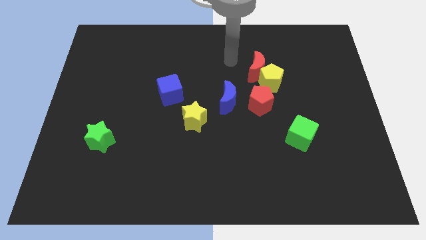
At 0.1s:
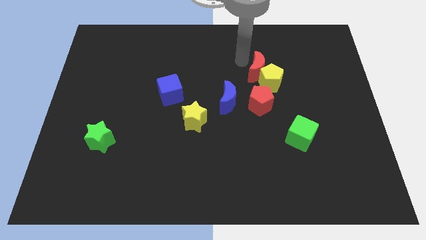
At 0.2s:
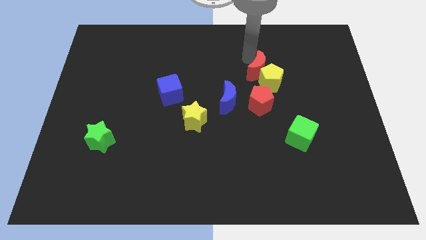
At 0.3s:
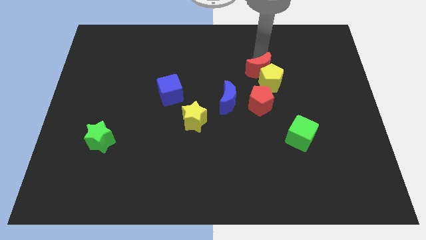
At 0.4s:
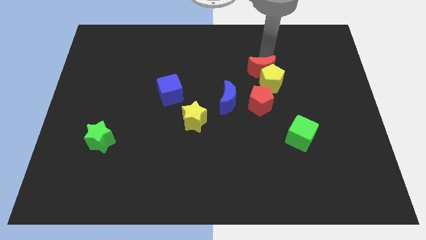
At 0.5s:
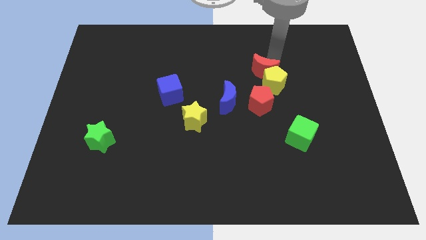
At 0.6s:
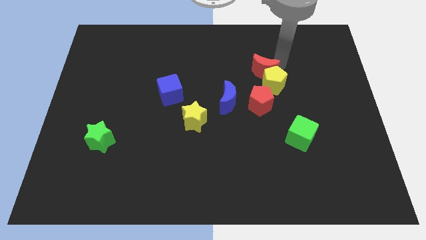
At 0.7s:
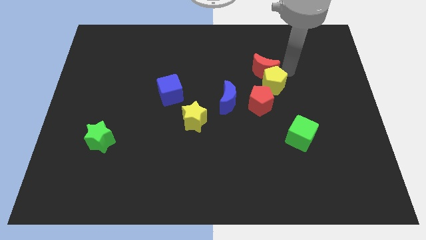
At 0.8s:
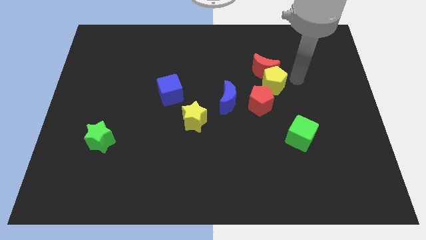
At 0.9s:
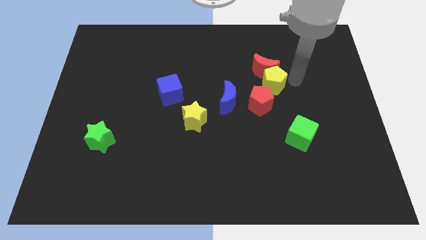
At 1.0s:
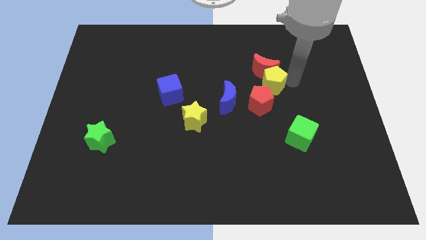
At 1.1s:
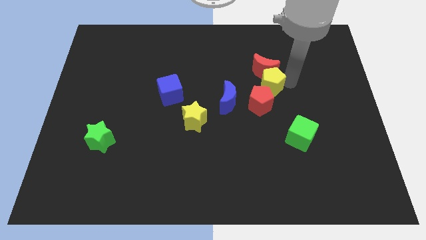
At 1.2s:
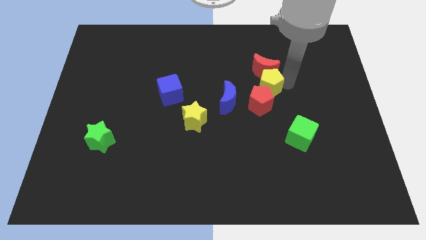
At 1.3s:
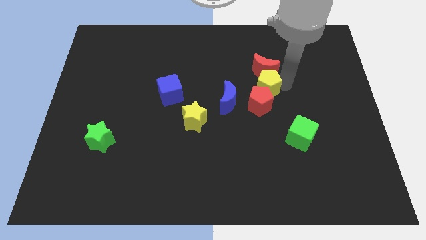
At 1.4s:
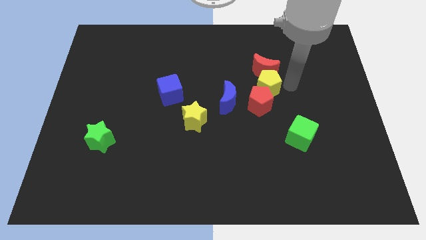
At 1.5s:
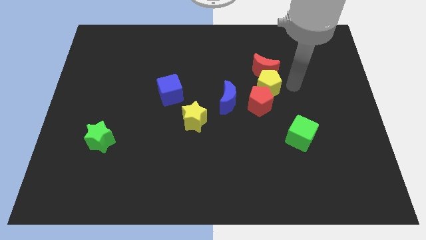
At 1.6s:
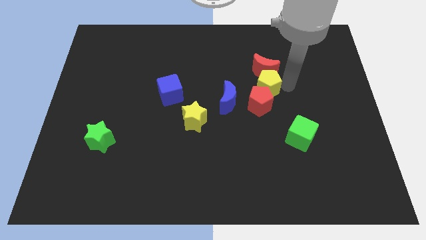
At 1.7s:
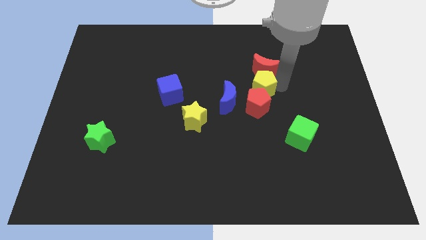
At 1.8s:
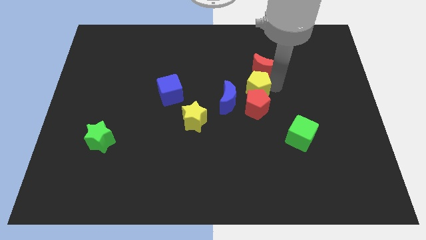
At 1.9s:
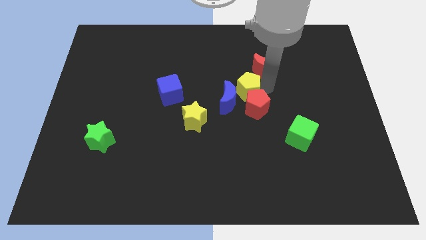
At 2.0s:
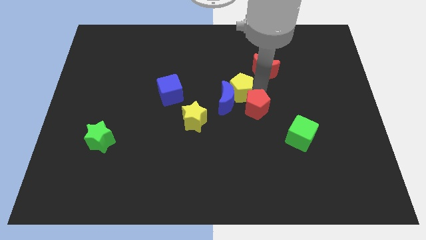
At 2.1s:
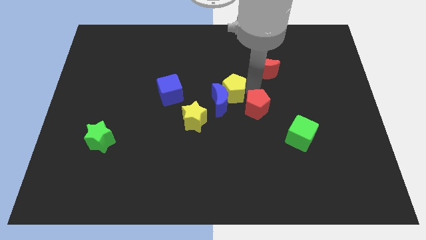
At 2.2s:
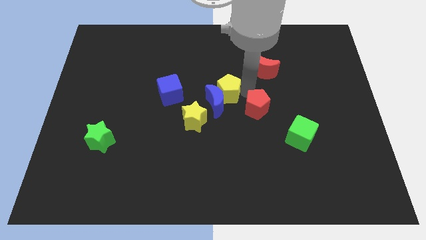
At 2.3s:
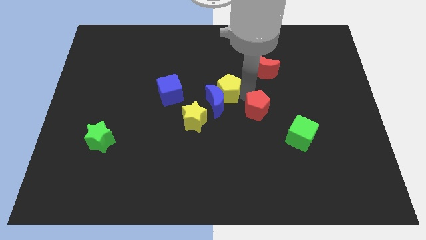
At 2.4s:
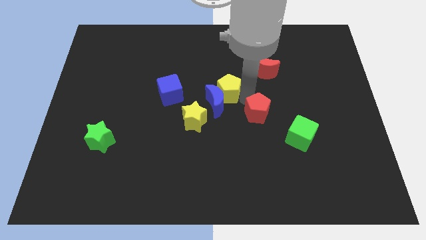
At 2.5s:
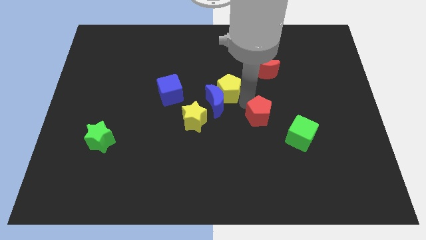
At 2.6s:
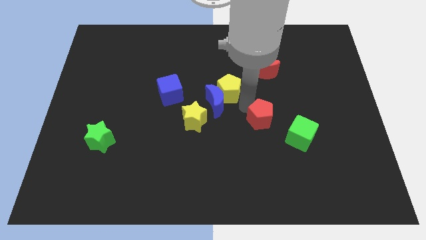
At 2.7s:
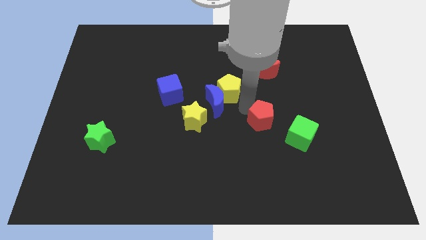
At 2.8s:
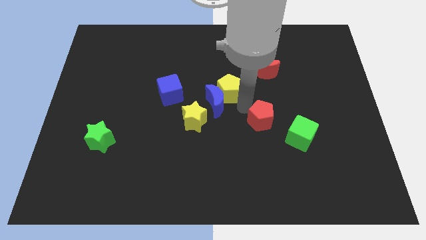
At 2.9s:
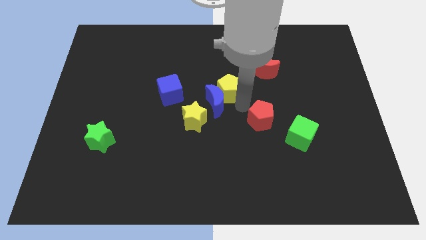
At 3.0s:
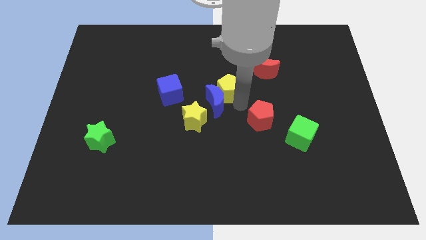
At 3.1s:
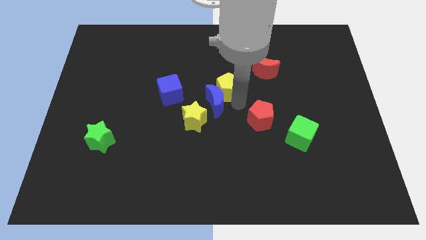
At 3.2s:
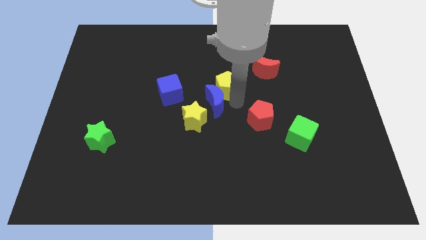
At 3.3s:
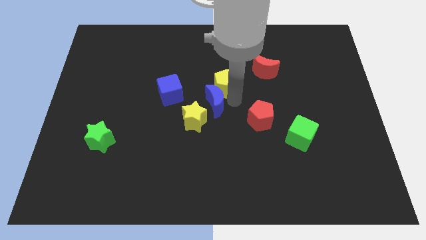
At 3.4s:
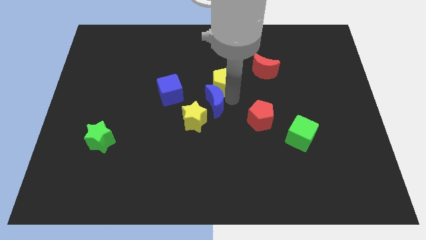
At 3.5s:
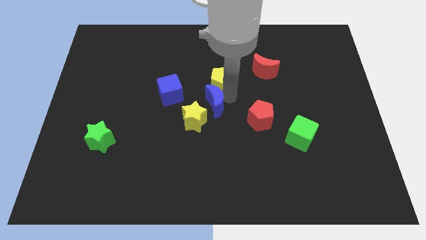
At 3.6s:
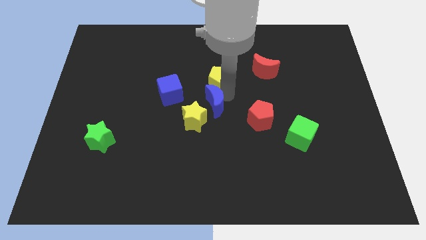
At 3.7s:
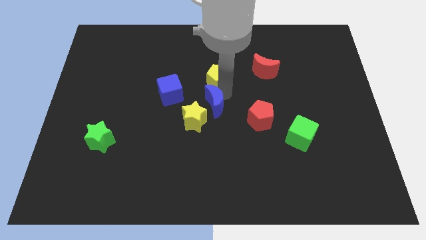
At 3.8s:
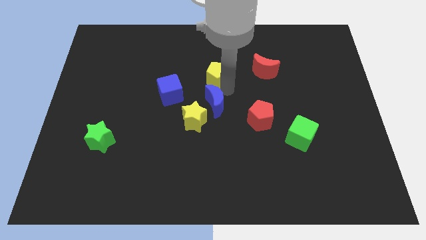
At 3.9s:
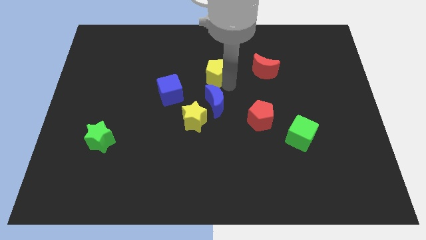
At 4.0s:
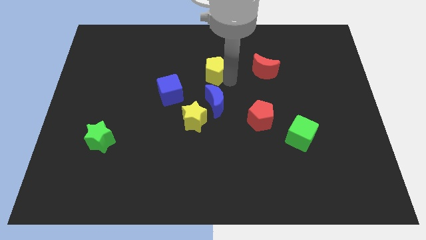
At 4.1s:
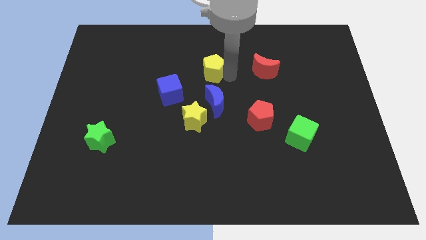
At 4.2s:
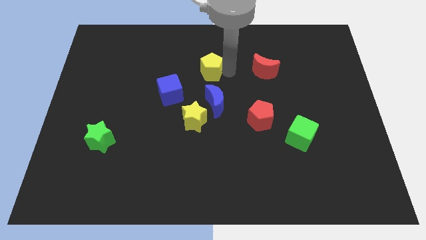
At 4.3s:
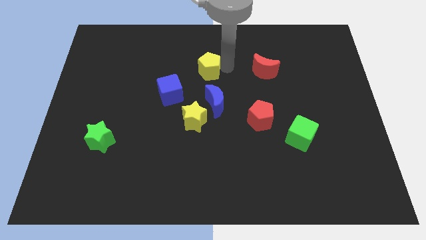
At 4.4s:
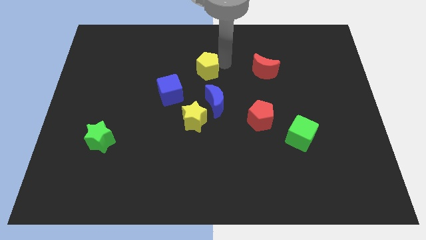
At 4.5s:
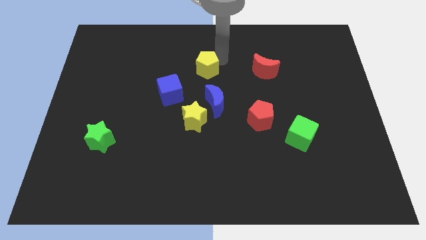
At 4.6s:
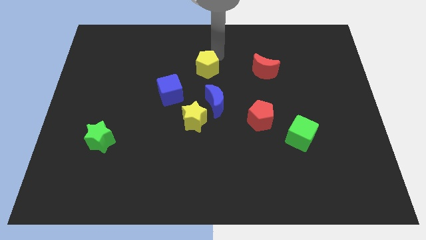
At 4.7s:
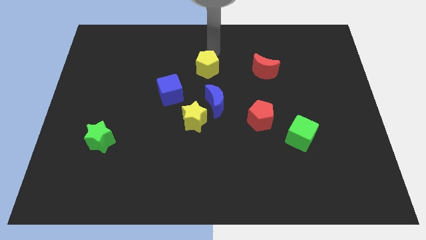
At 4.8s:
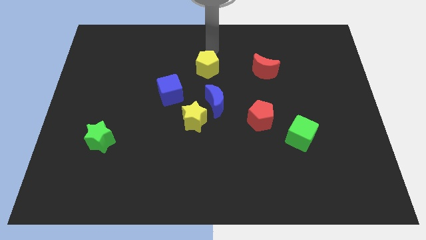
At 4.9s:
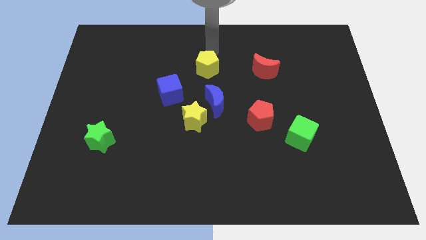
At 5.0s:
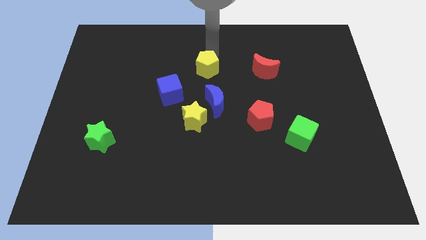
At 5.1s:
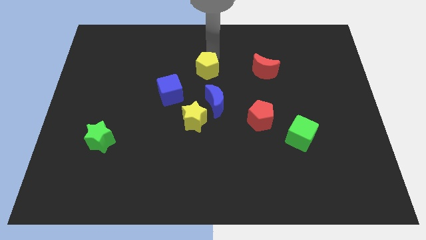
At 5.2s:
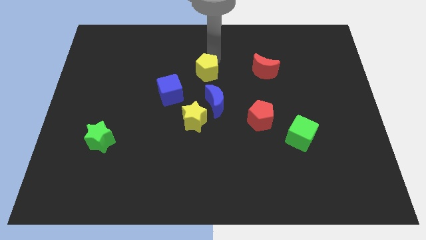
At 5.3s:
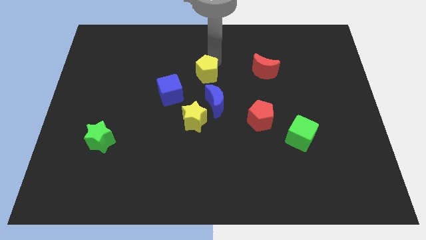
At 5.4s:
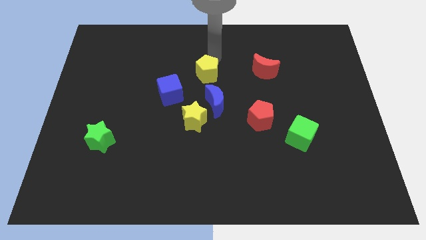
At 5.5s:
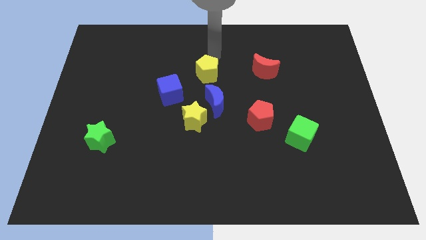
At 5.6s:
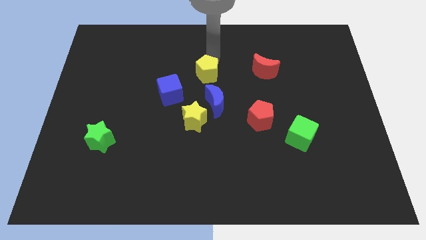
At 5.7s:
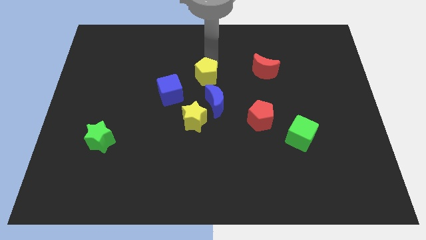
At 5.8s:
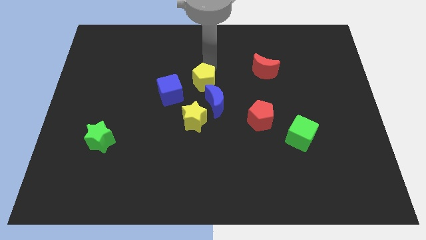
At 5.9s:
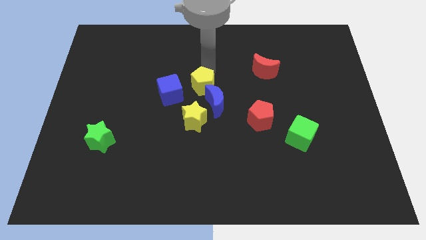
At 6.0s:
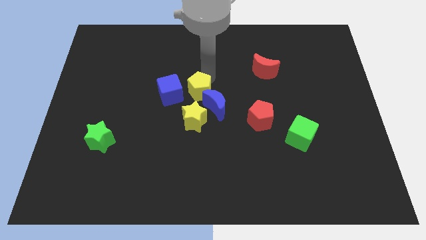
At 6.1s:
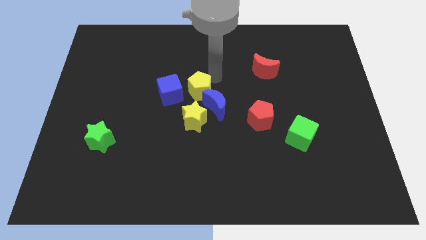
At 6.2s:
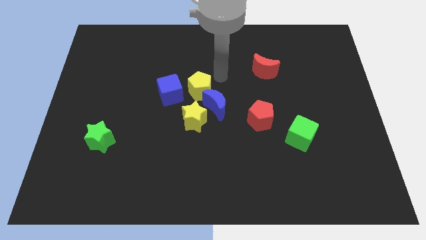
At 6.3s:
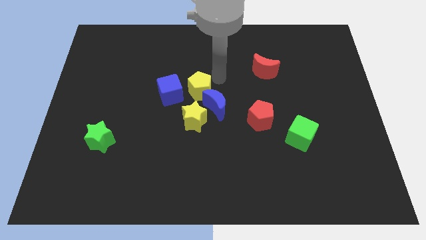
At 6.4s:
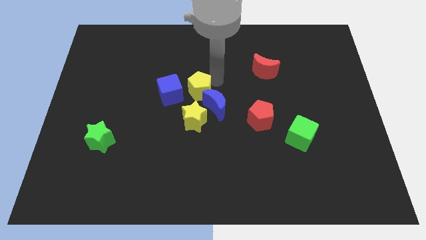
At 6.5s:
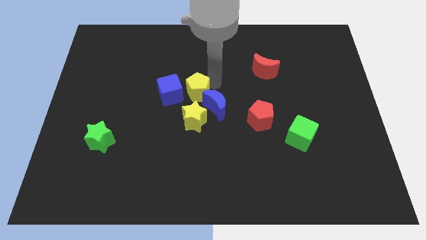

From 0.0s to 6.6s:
slide the yellow pentagon left of the blue moon

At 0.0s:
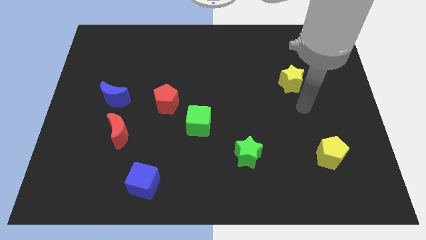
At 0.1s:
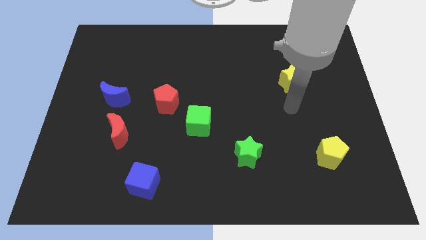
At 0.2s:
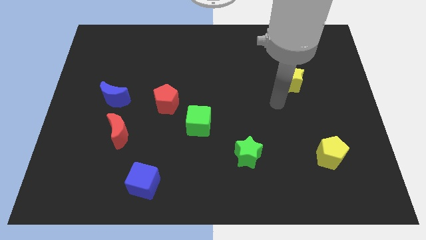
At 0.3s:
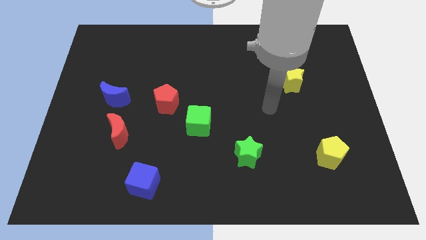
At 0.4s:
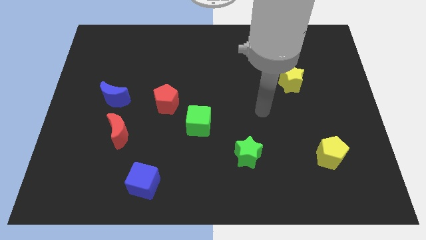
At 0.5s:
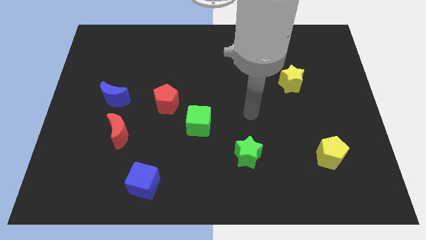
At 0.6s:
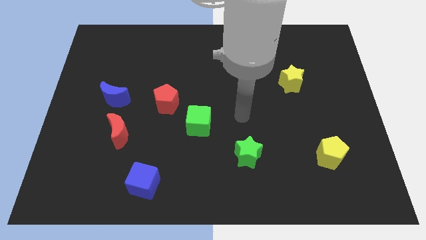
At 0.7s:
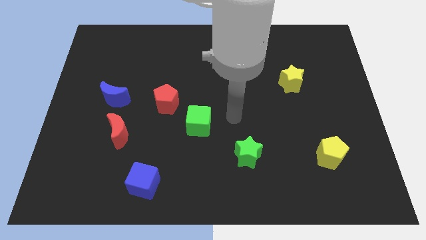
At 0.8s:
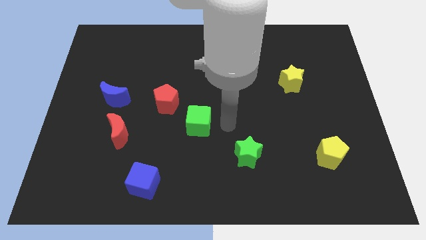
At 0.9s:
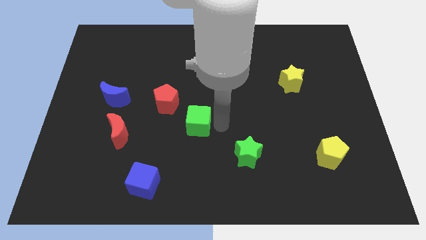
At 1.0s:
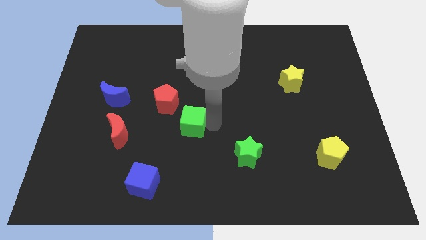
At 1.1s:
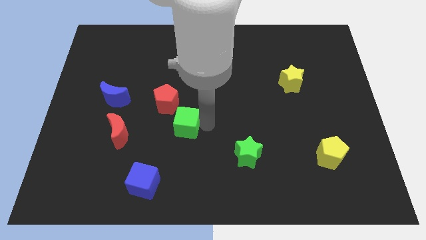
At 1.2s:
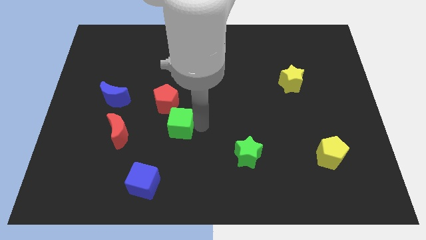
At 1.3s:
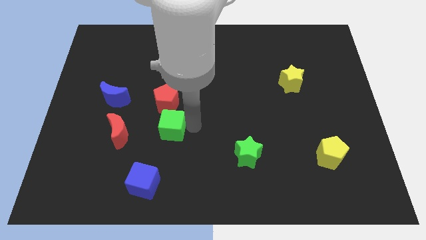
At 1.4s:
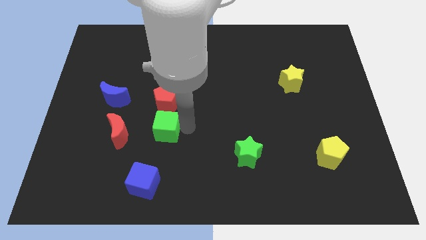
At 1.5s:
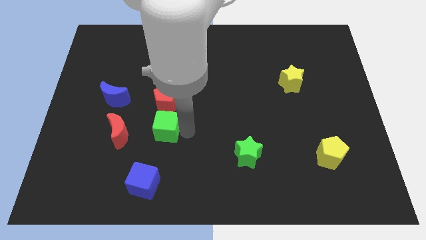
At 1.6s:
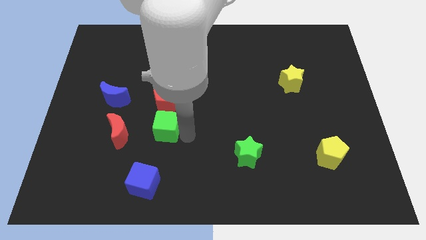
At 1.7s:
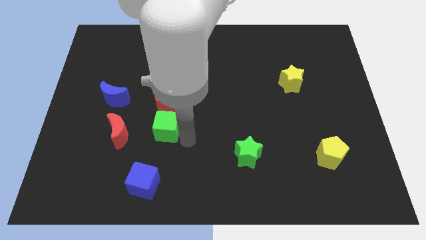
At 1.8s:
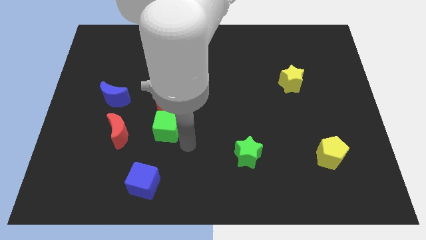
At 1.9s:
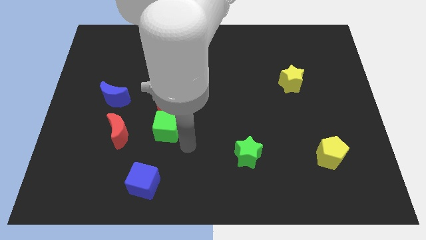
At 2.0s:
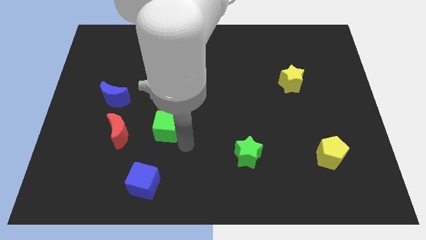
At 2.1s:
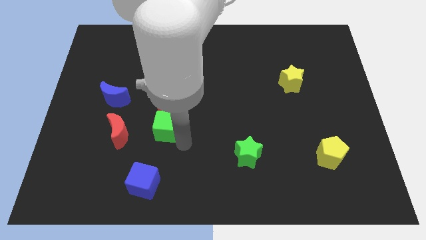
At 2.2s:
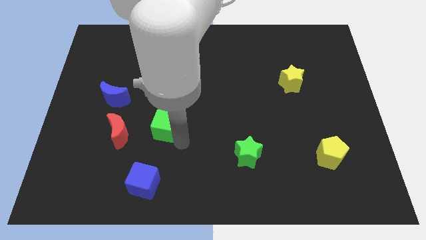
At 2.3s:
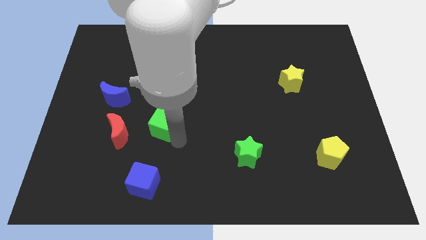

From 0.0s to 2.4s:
put the green cube to the bottom left of the red pentagon
